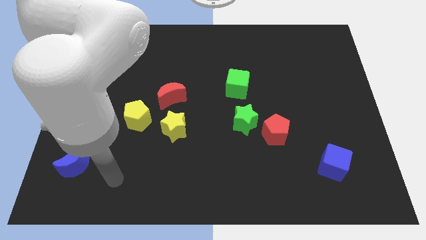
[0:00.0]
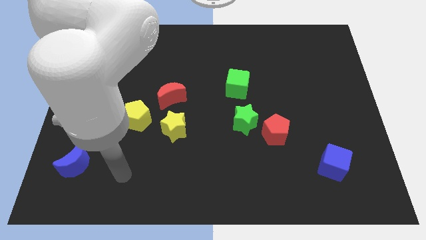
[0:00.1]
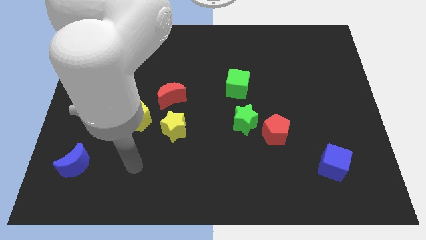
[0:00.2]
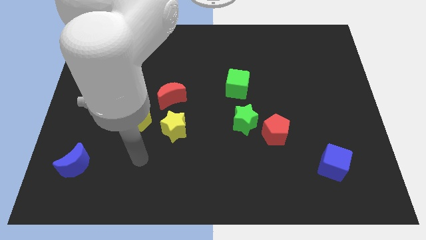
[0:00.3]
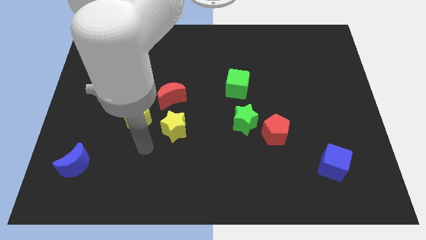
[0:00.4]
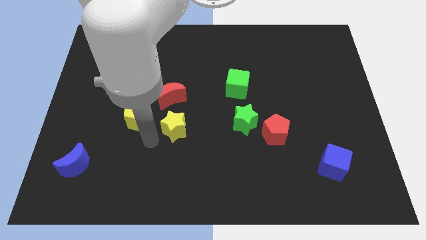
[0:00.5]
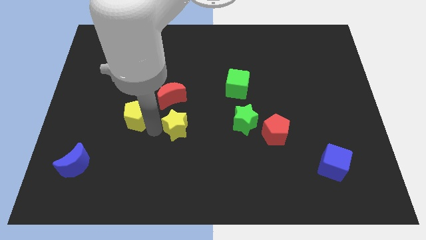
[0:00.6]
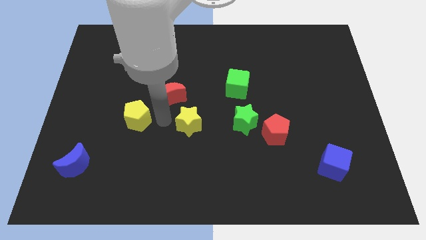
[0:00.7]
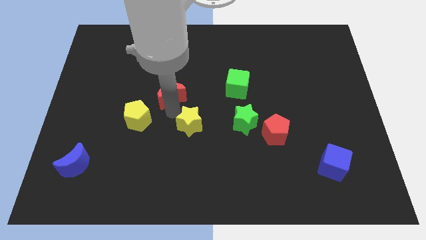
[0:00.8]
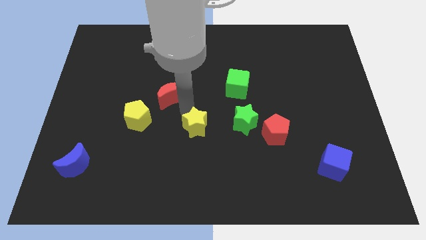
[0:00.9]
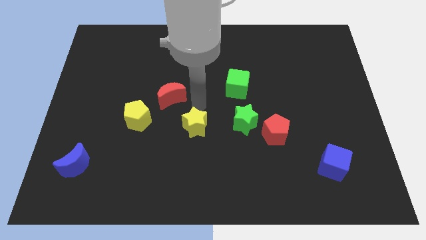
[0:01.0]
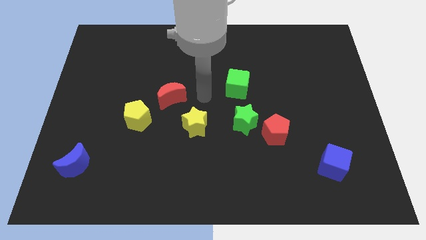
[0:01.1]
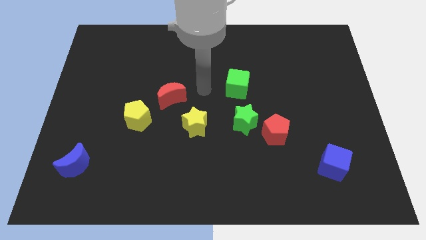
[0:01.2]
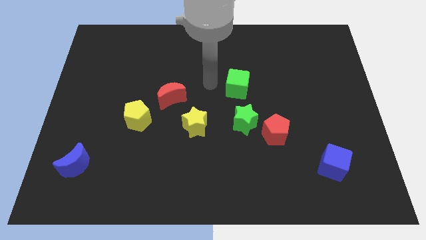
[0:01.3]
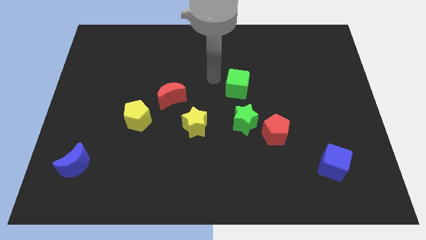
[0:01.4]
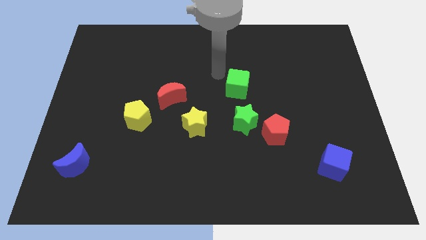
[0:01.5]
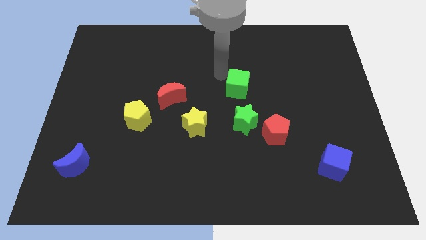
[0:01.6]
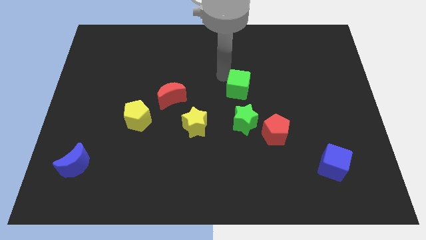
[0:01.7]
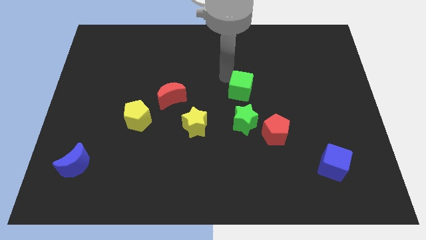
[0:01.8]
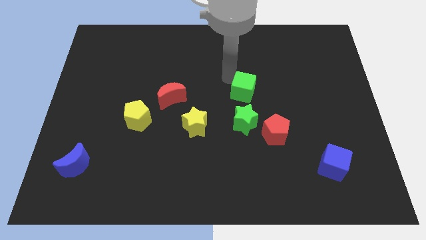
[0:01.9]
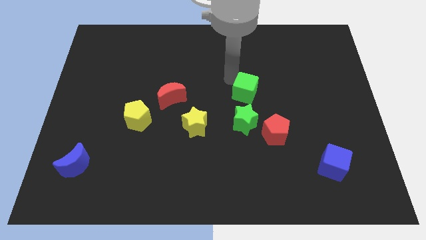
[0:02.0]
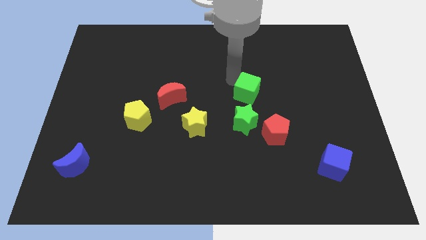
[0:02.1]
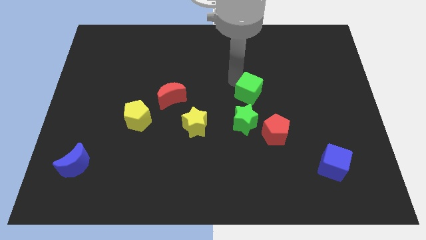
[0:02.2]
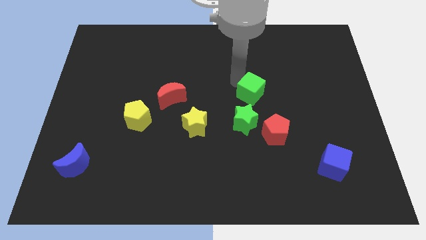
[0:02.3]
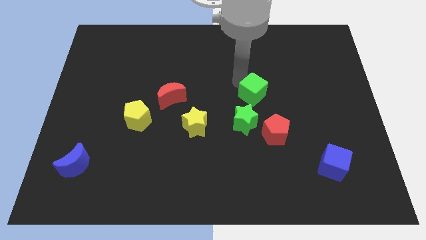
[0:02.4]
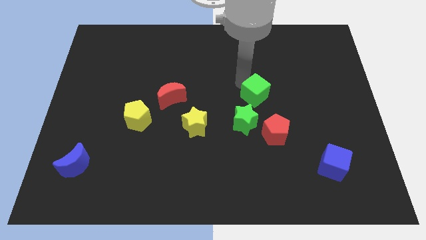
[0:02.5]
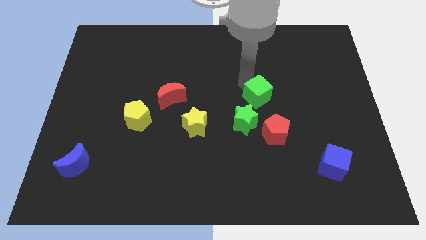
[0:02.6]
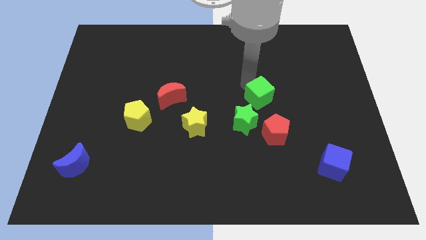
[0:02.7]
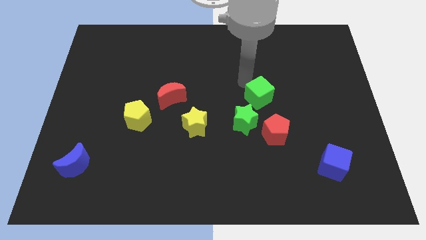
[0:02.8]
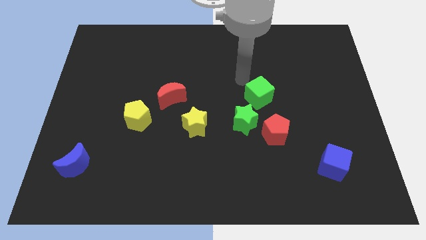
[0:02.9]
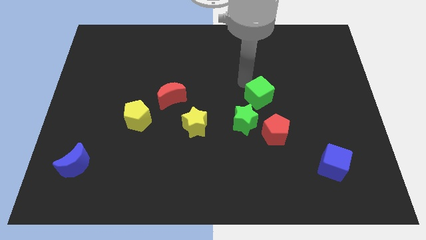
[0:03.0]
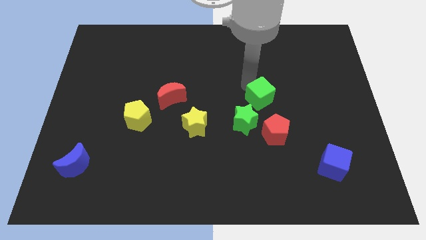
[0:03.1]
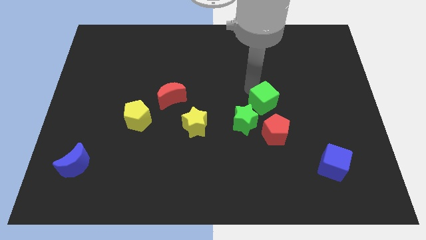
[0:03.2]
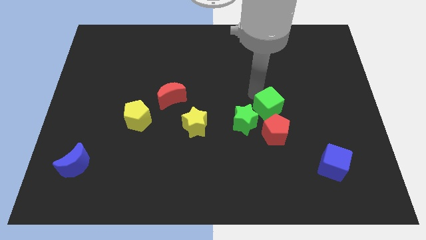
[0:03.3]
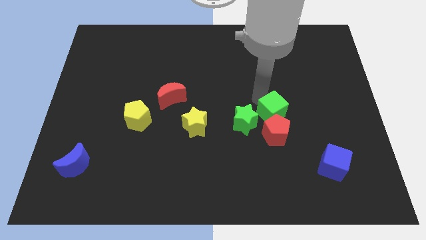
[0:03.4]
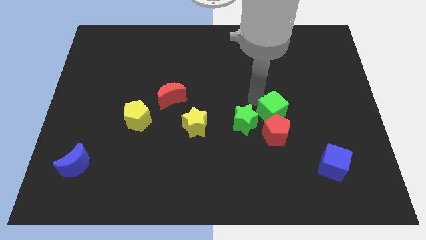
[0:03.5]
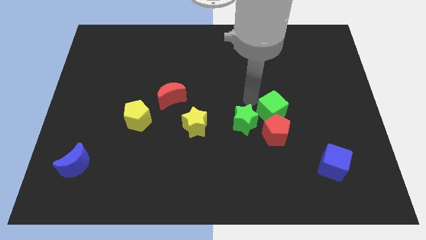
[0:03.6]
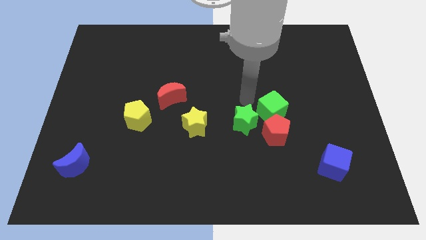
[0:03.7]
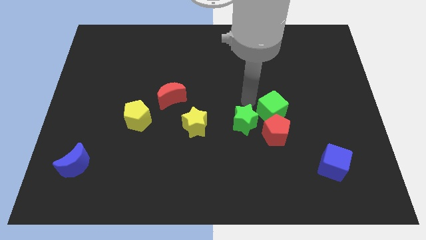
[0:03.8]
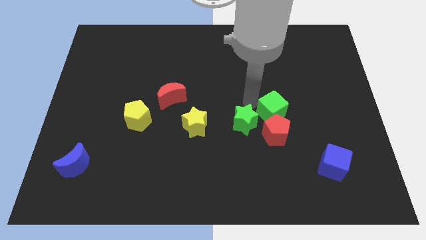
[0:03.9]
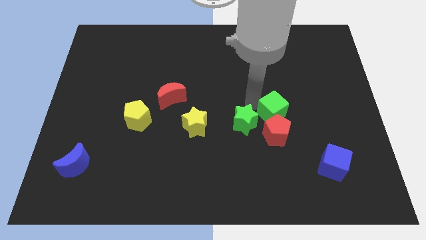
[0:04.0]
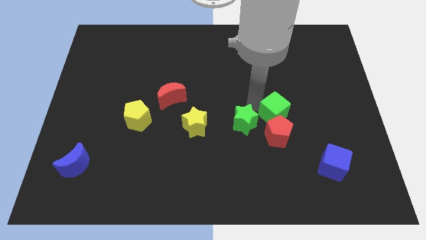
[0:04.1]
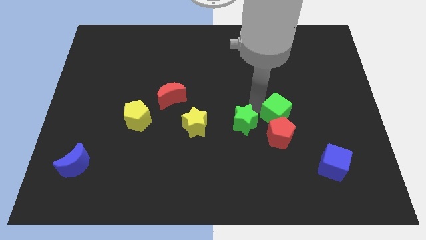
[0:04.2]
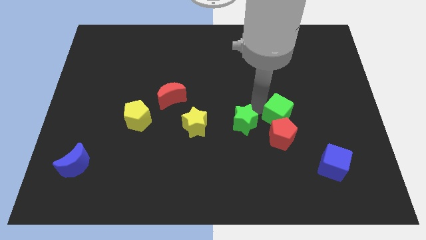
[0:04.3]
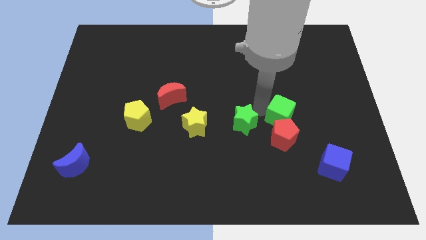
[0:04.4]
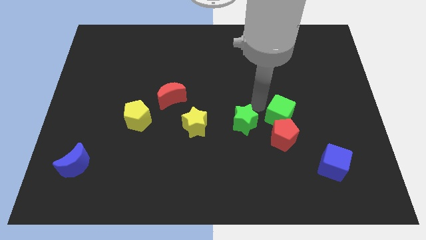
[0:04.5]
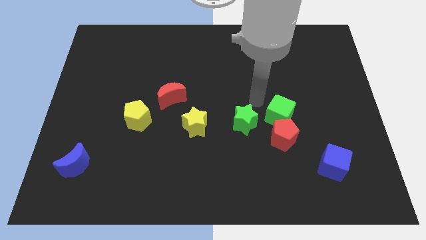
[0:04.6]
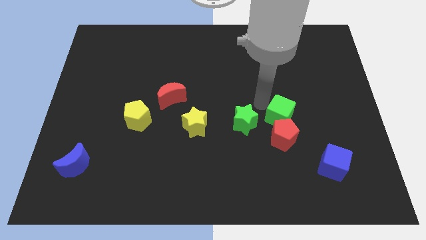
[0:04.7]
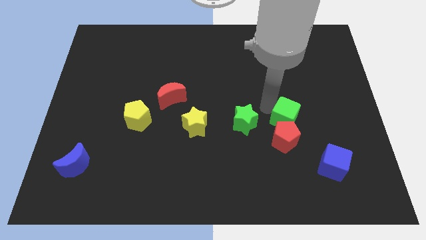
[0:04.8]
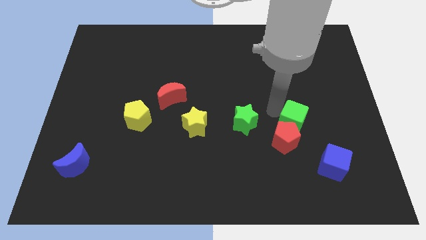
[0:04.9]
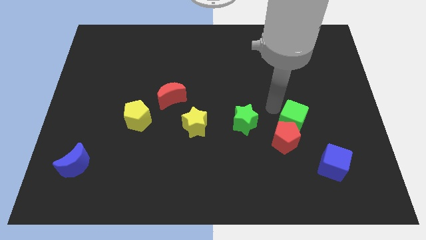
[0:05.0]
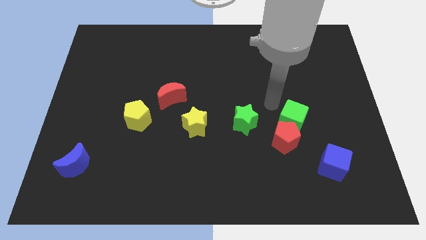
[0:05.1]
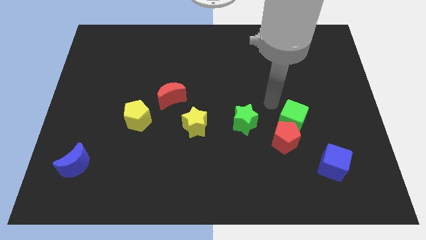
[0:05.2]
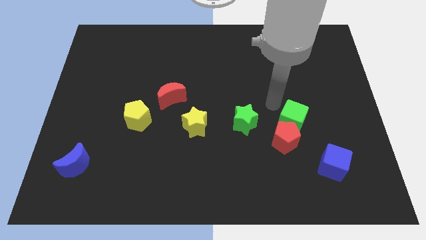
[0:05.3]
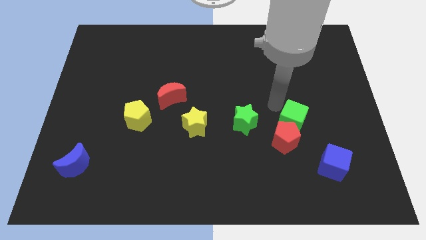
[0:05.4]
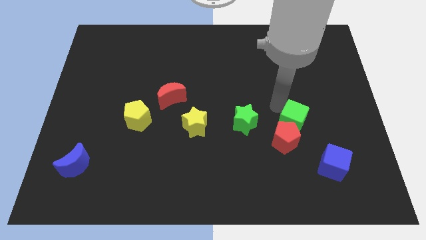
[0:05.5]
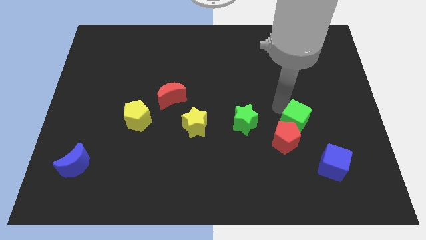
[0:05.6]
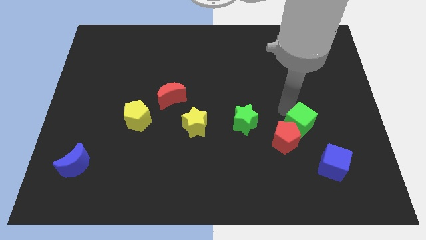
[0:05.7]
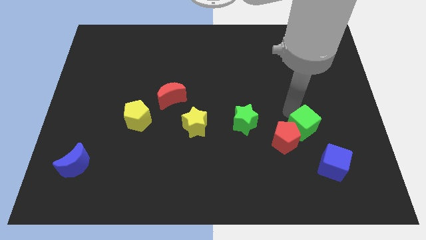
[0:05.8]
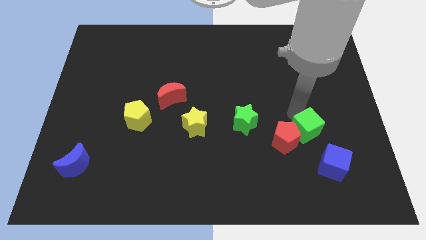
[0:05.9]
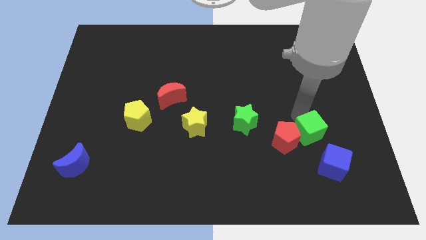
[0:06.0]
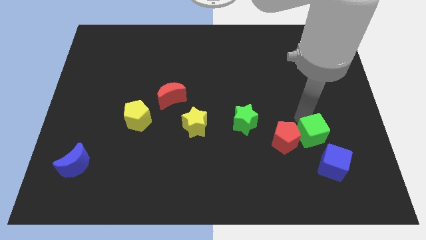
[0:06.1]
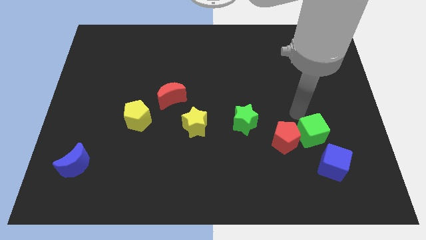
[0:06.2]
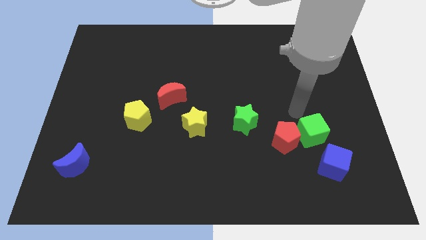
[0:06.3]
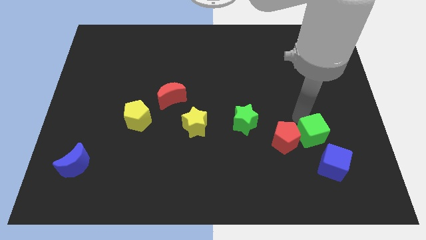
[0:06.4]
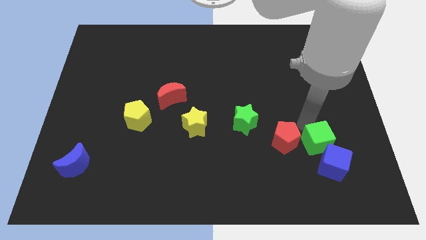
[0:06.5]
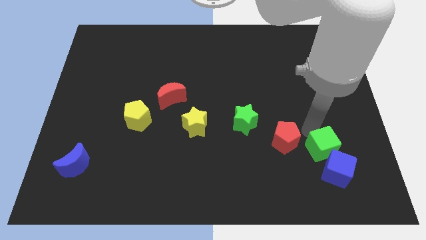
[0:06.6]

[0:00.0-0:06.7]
push the green cube next to the blue cube

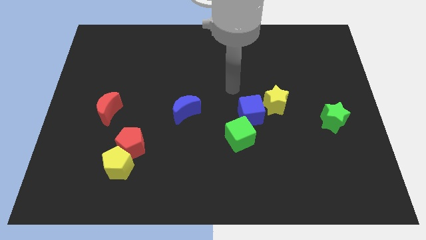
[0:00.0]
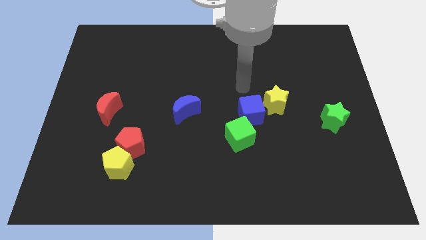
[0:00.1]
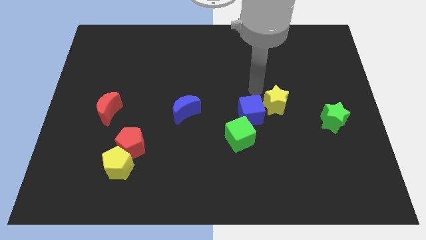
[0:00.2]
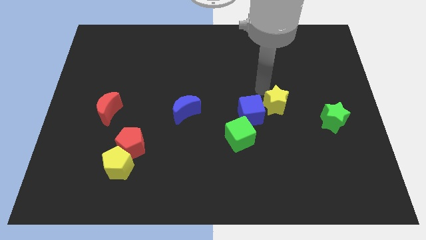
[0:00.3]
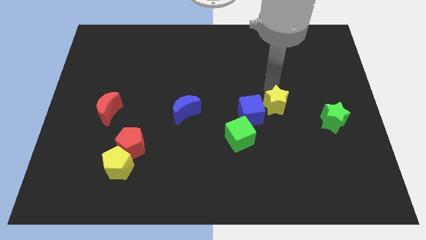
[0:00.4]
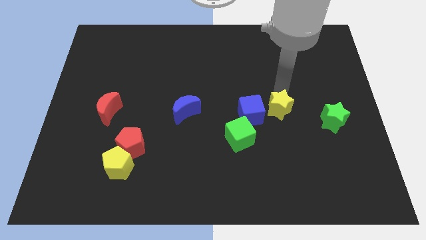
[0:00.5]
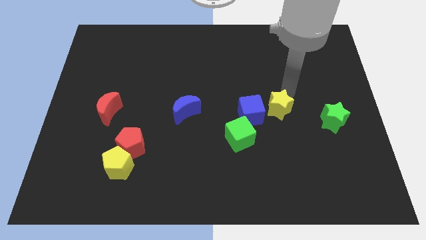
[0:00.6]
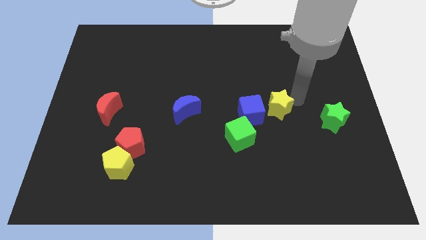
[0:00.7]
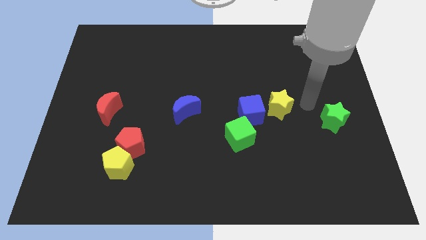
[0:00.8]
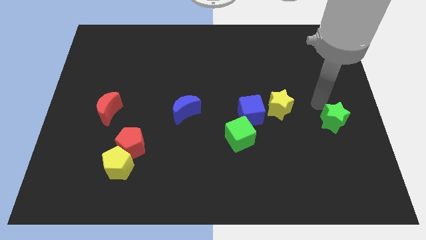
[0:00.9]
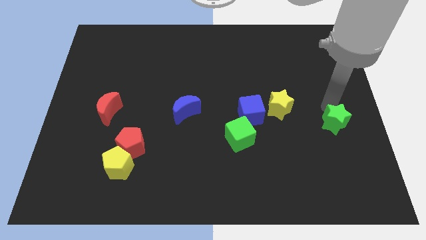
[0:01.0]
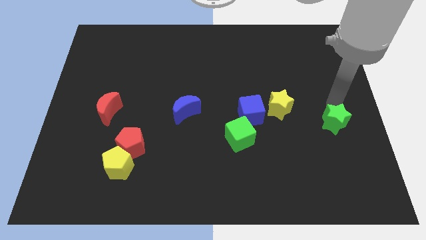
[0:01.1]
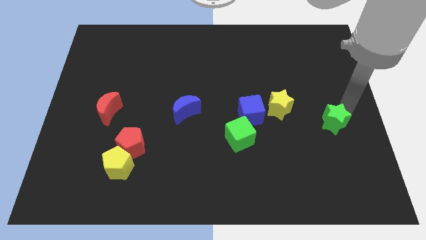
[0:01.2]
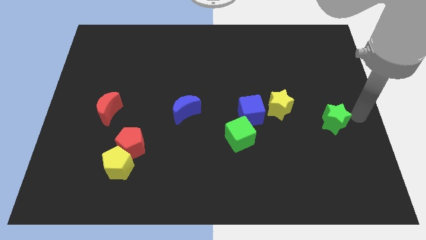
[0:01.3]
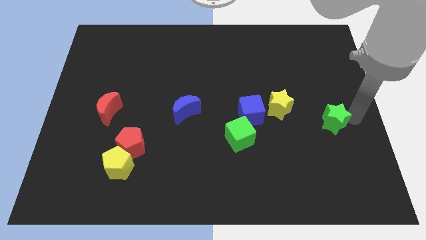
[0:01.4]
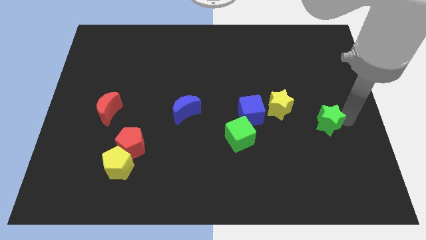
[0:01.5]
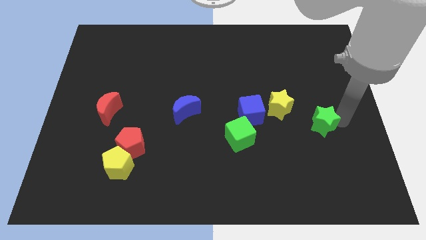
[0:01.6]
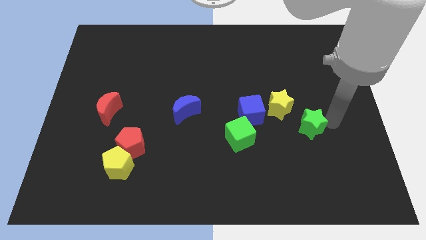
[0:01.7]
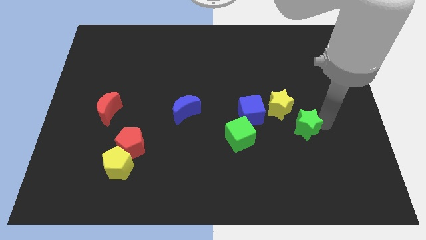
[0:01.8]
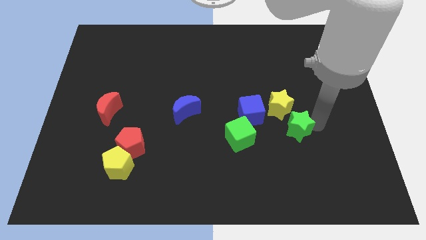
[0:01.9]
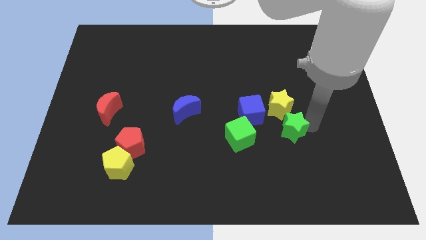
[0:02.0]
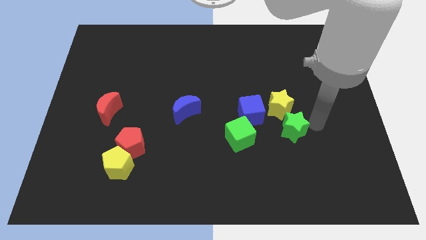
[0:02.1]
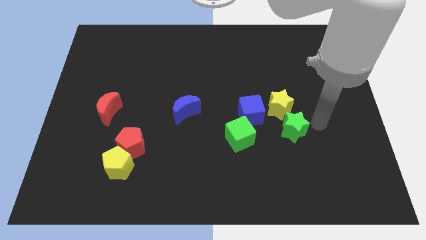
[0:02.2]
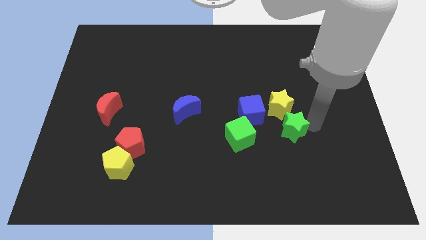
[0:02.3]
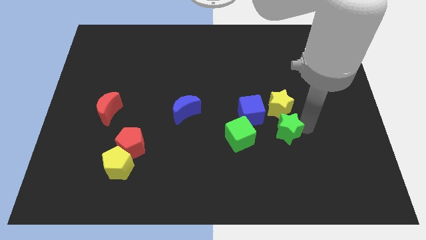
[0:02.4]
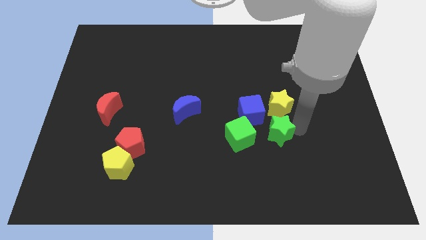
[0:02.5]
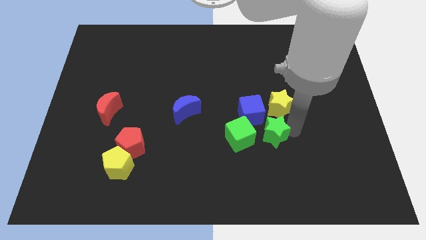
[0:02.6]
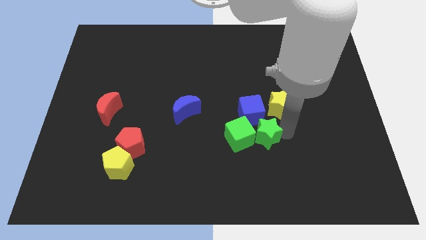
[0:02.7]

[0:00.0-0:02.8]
put the green star close to the green cube
